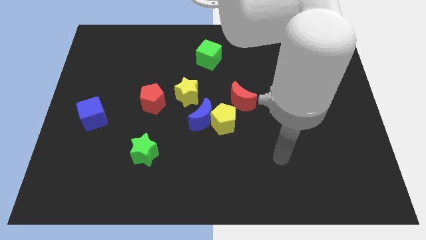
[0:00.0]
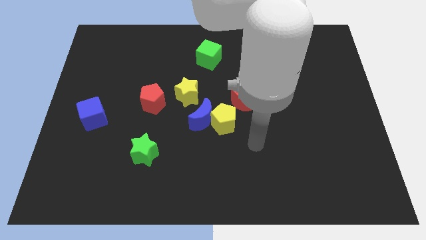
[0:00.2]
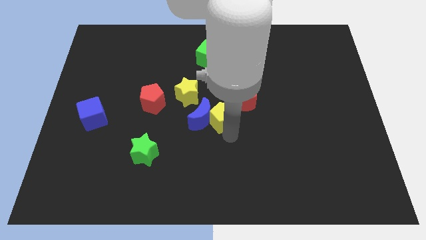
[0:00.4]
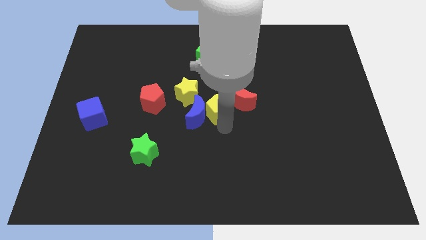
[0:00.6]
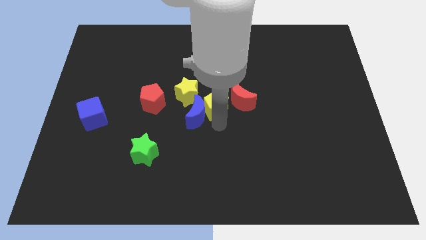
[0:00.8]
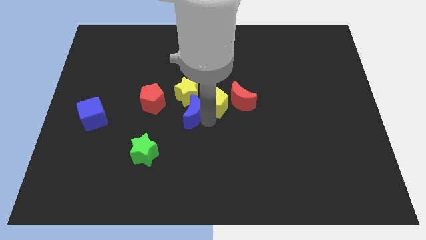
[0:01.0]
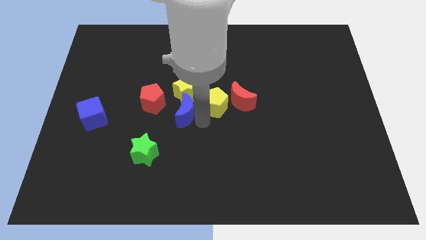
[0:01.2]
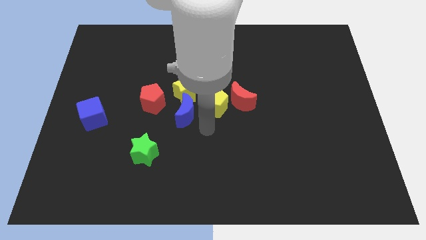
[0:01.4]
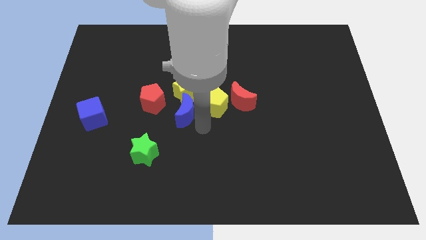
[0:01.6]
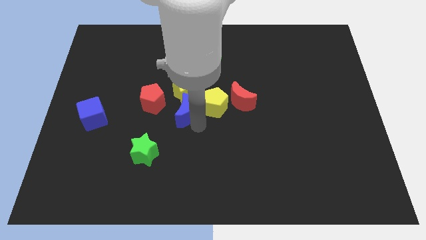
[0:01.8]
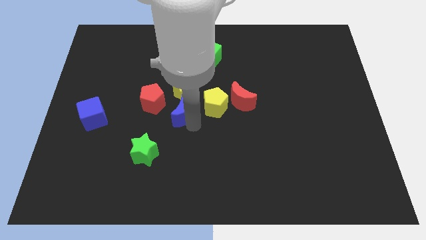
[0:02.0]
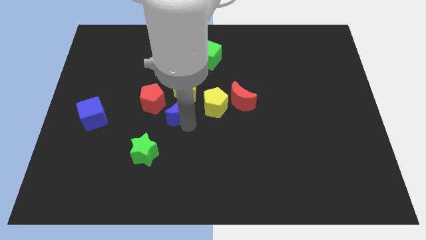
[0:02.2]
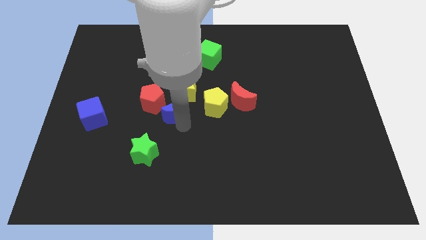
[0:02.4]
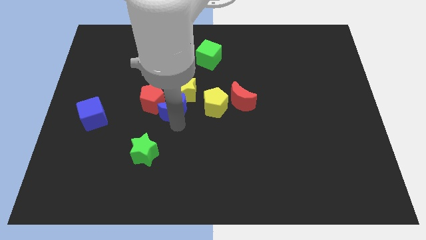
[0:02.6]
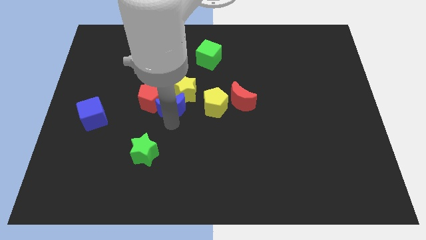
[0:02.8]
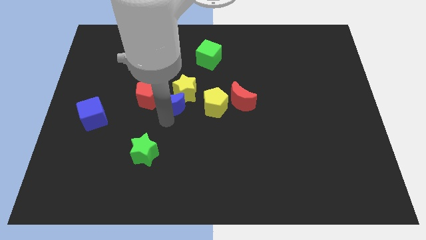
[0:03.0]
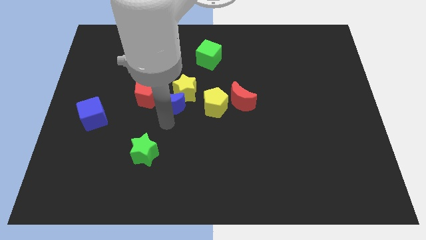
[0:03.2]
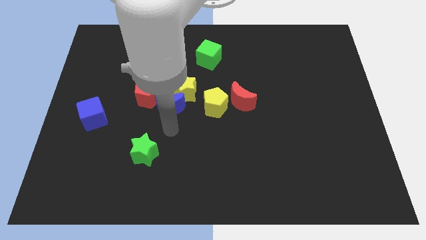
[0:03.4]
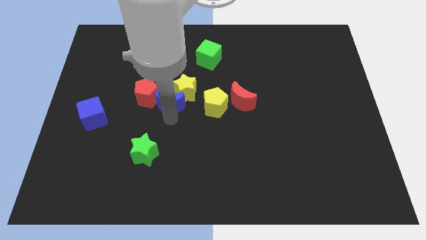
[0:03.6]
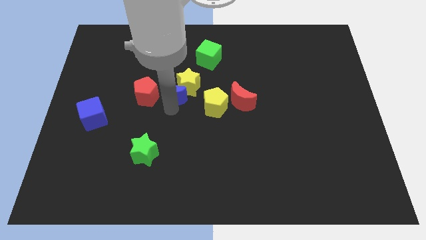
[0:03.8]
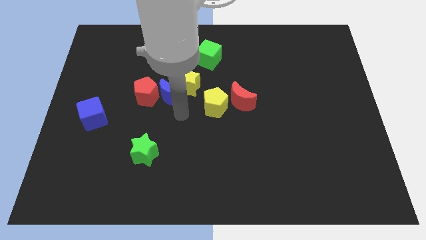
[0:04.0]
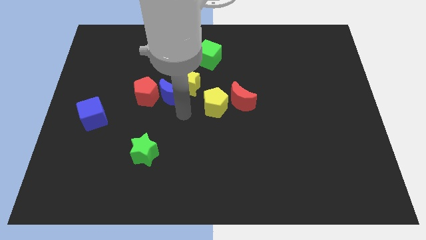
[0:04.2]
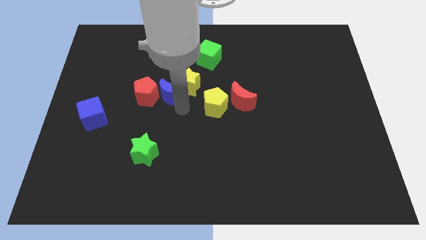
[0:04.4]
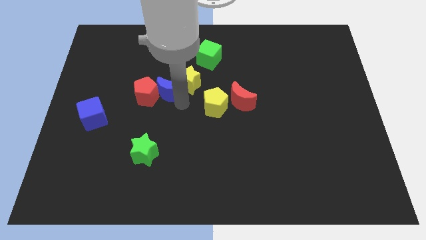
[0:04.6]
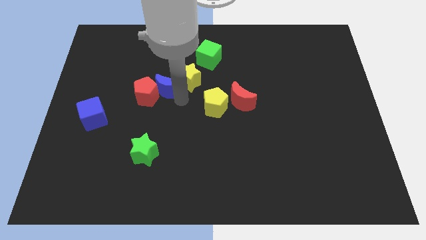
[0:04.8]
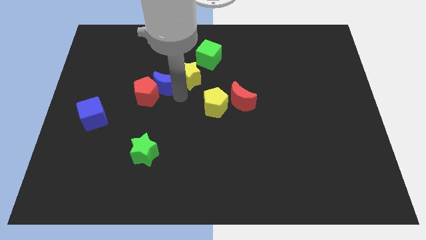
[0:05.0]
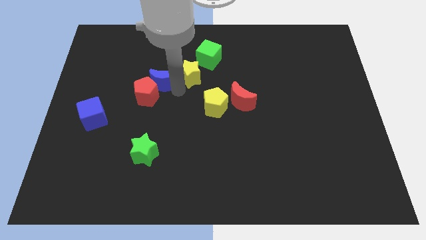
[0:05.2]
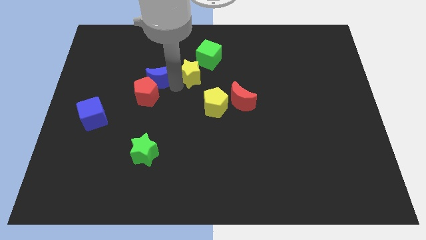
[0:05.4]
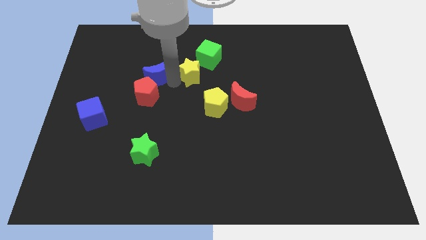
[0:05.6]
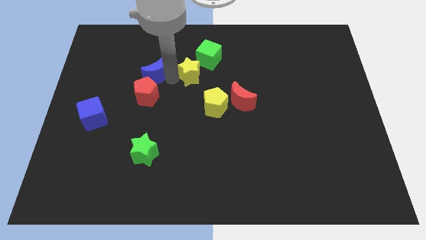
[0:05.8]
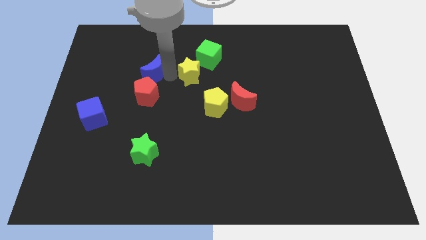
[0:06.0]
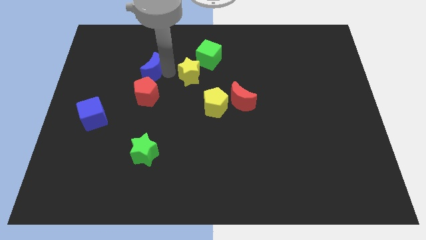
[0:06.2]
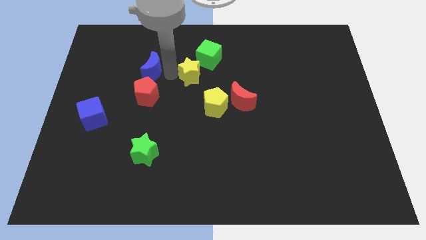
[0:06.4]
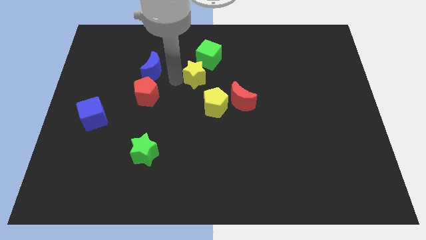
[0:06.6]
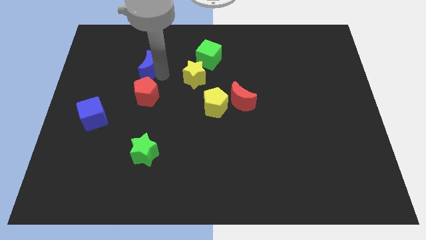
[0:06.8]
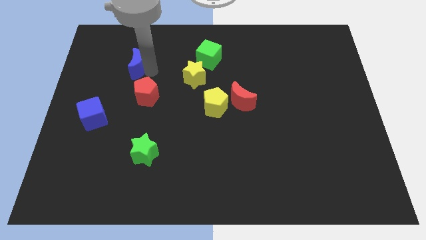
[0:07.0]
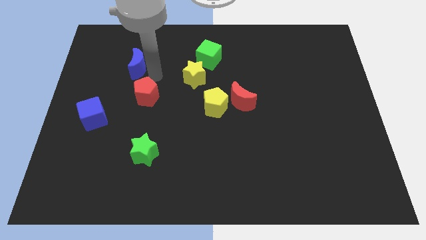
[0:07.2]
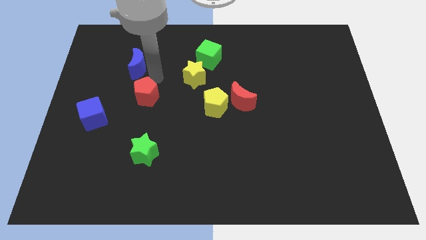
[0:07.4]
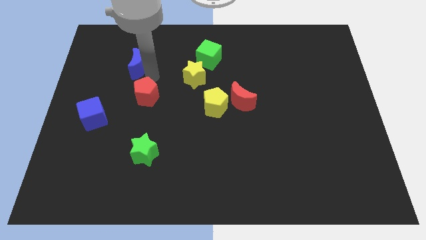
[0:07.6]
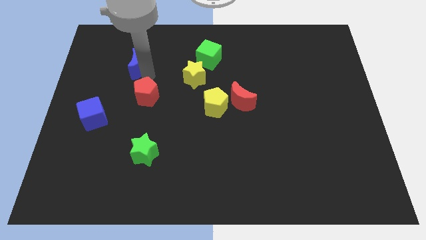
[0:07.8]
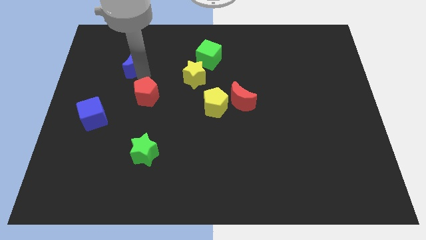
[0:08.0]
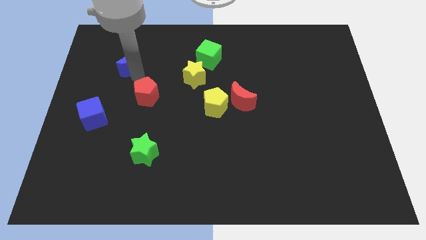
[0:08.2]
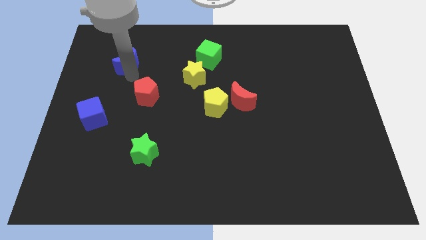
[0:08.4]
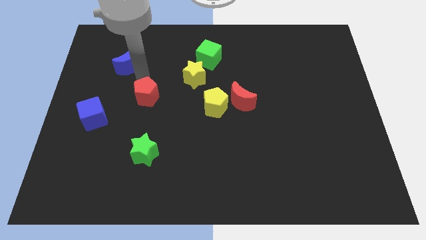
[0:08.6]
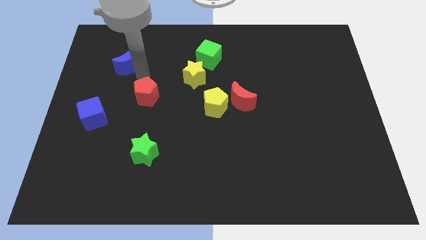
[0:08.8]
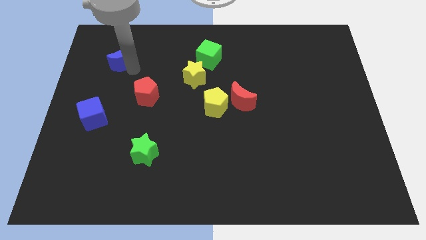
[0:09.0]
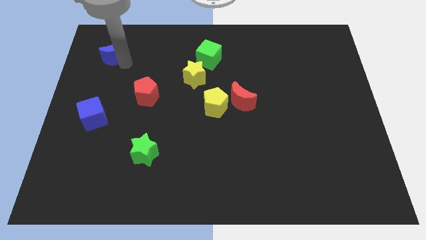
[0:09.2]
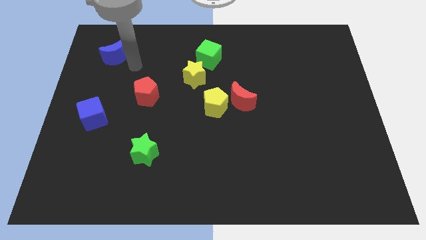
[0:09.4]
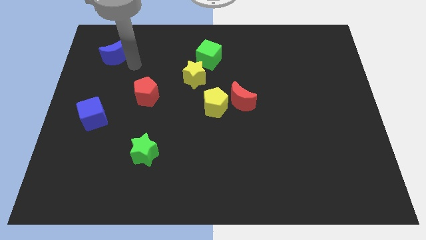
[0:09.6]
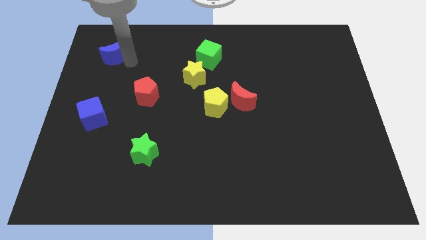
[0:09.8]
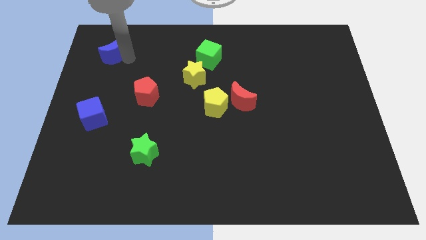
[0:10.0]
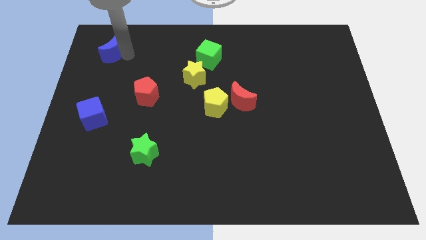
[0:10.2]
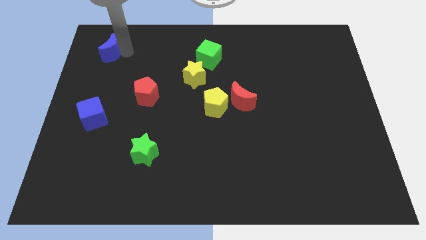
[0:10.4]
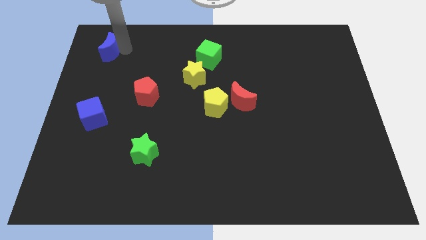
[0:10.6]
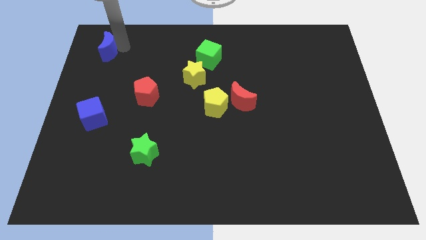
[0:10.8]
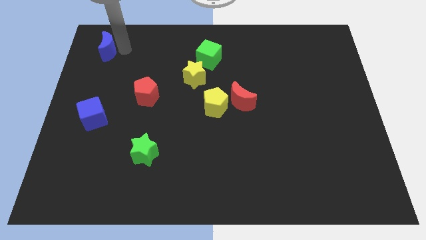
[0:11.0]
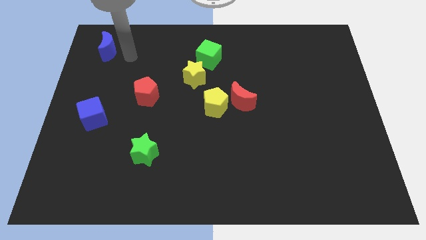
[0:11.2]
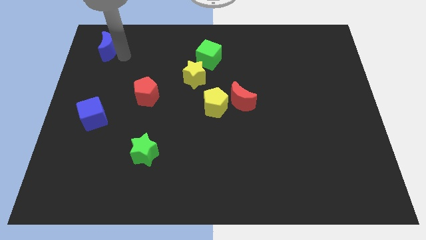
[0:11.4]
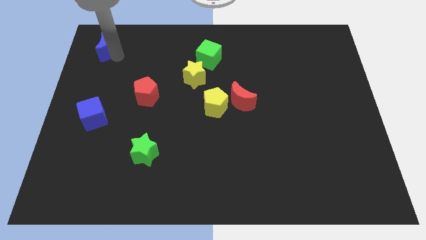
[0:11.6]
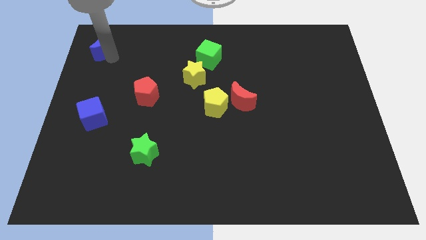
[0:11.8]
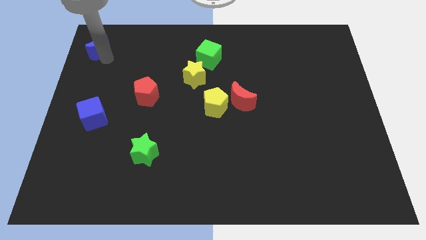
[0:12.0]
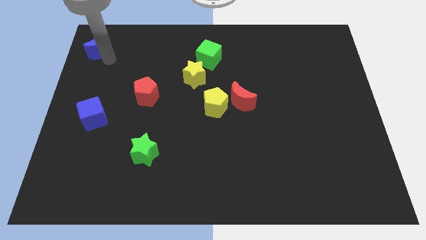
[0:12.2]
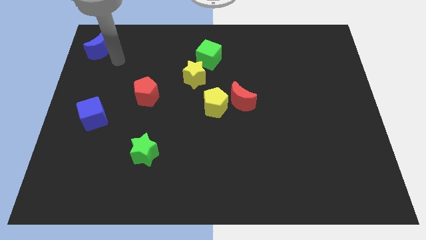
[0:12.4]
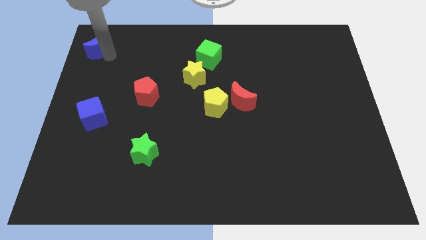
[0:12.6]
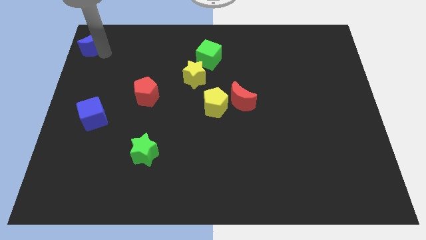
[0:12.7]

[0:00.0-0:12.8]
put the blue moon to the upper left corner
